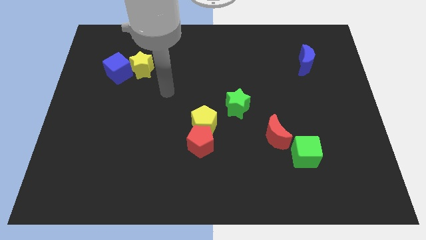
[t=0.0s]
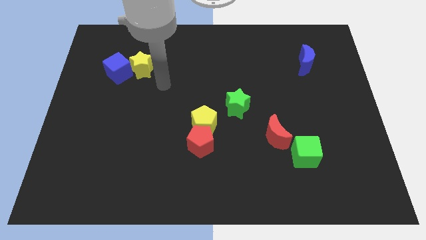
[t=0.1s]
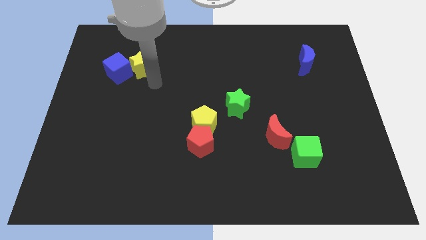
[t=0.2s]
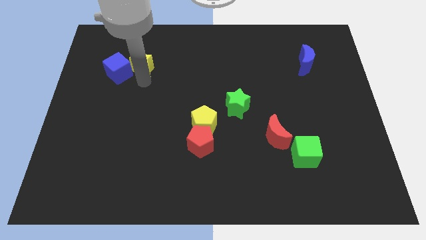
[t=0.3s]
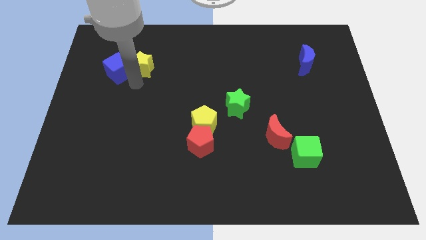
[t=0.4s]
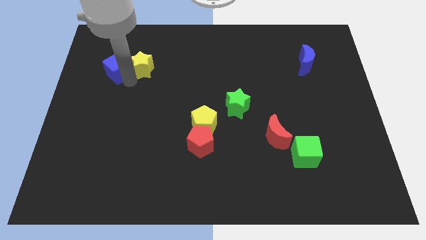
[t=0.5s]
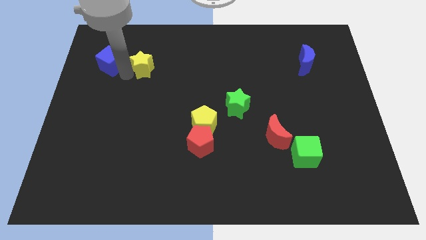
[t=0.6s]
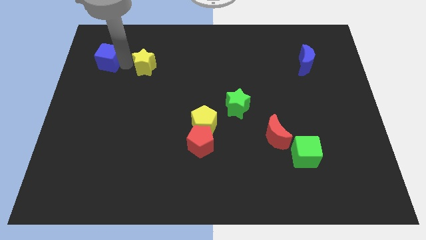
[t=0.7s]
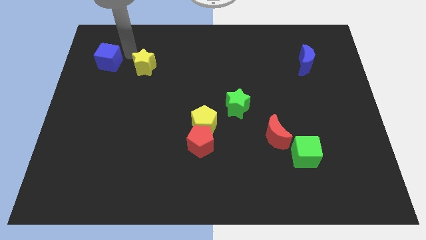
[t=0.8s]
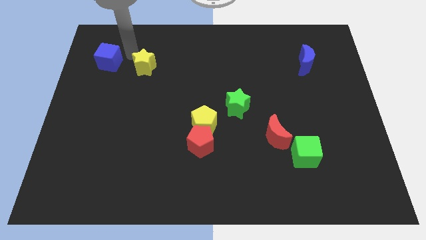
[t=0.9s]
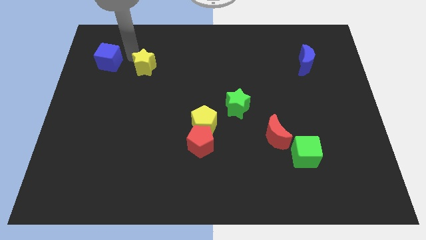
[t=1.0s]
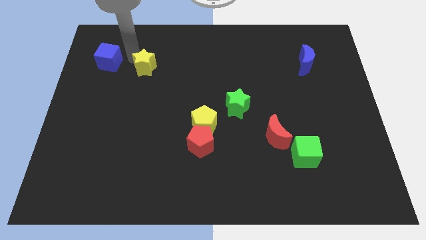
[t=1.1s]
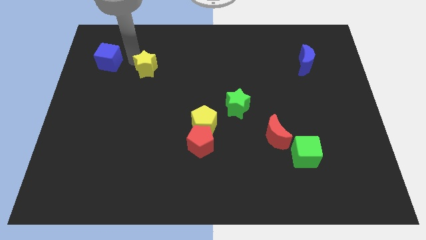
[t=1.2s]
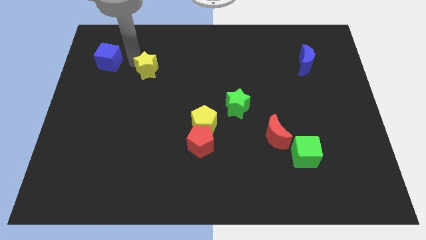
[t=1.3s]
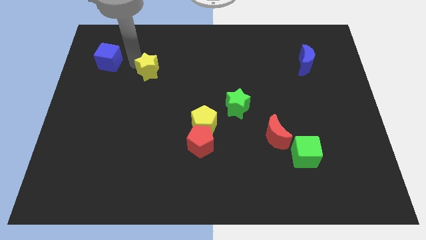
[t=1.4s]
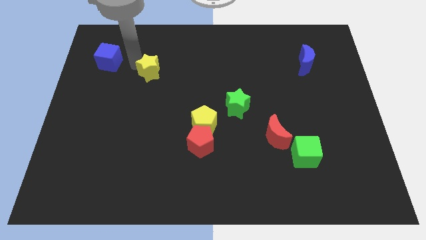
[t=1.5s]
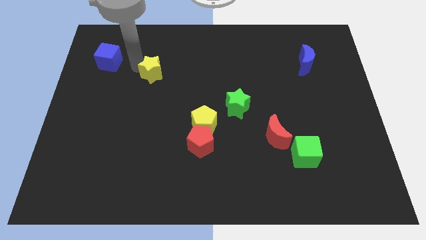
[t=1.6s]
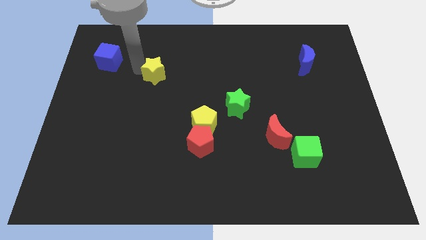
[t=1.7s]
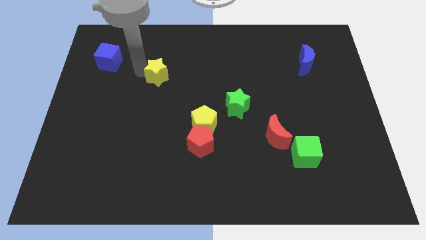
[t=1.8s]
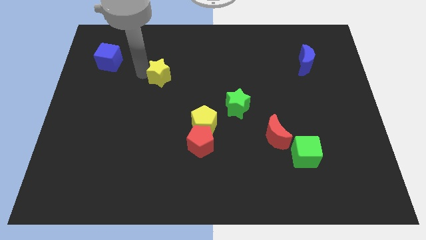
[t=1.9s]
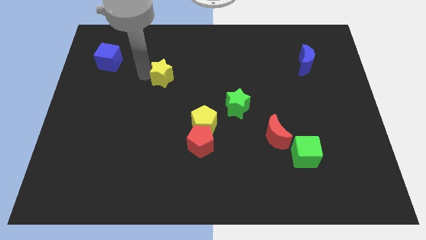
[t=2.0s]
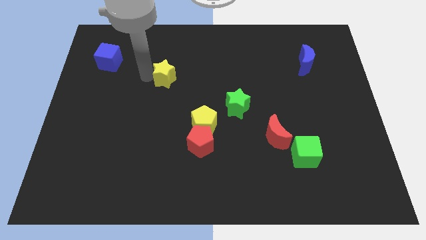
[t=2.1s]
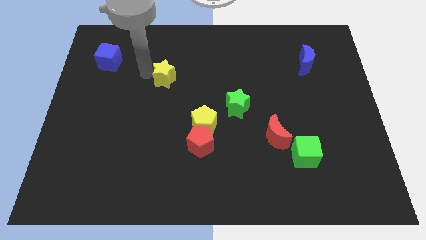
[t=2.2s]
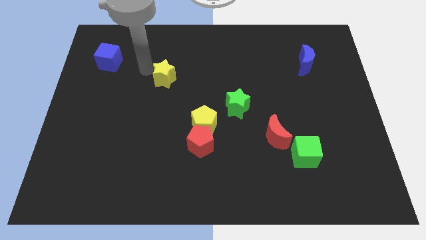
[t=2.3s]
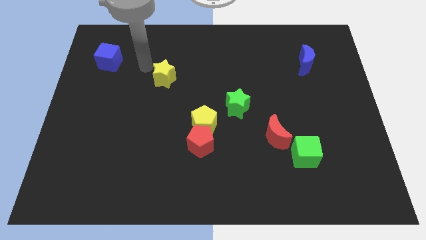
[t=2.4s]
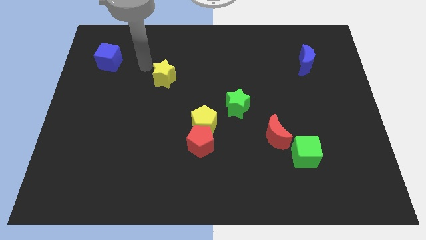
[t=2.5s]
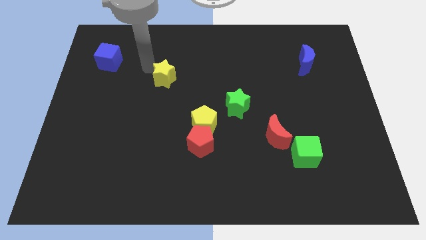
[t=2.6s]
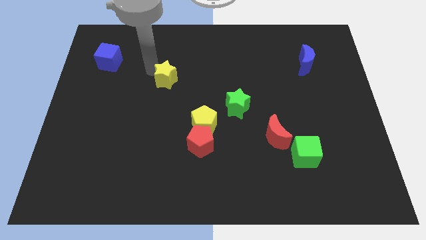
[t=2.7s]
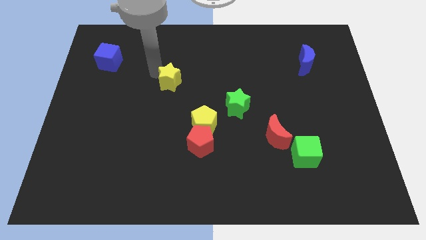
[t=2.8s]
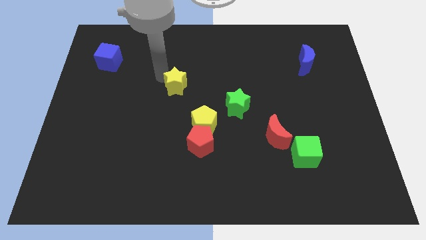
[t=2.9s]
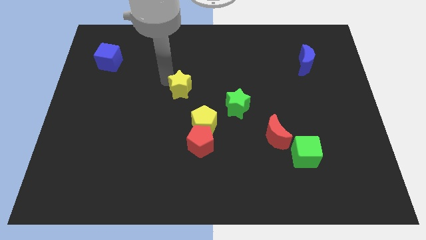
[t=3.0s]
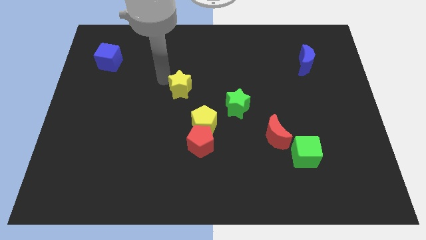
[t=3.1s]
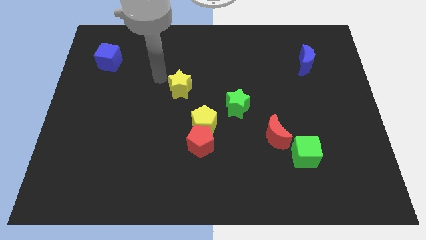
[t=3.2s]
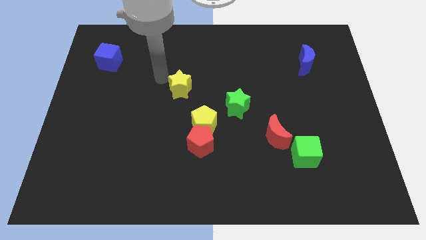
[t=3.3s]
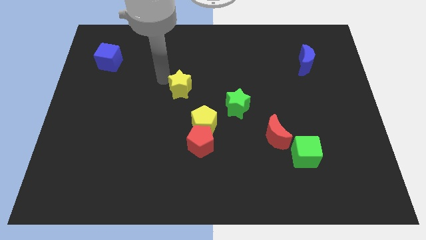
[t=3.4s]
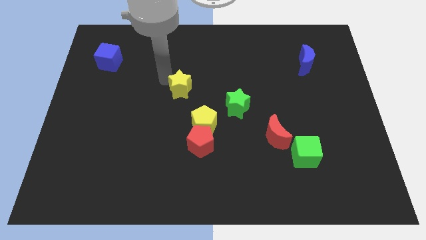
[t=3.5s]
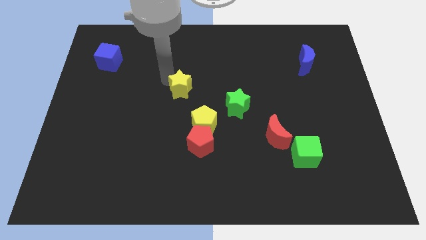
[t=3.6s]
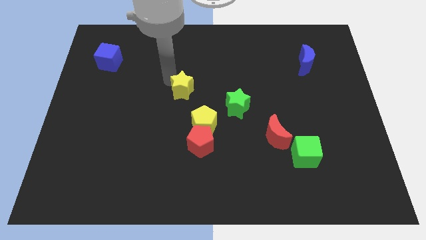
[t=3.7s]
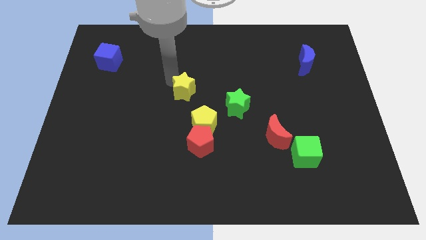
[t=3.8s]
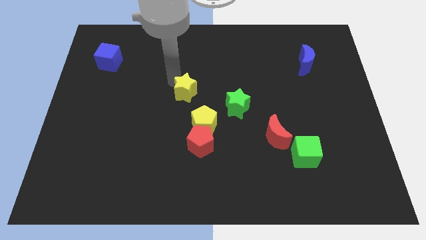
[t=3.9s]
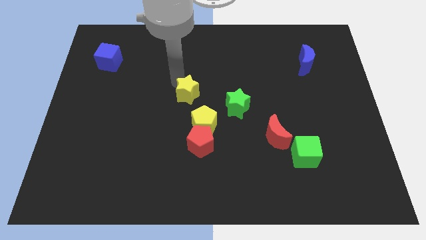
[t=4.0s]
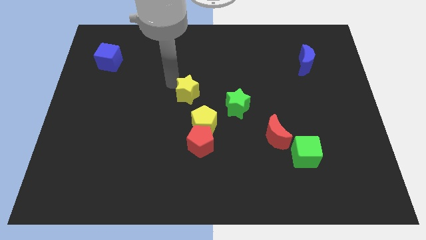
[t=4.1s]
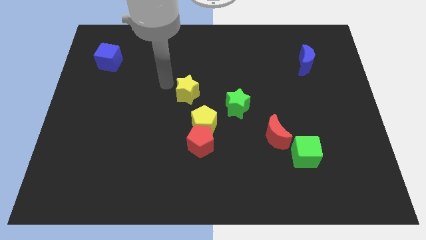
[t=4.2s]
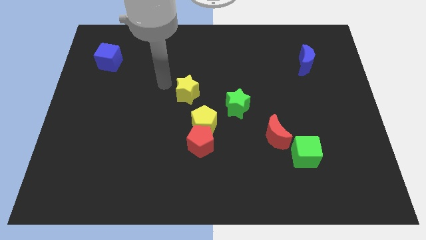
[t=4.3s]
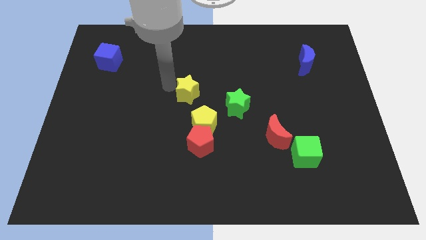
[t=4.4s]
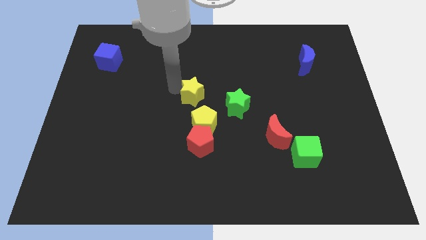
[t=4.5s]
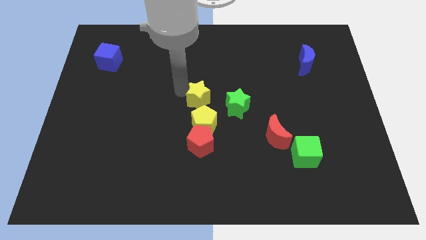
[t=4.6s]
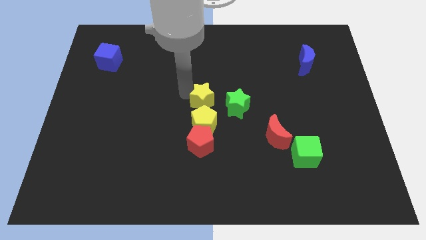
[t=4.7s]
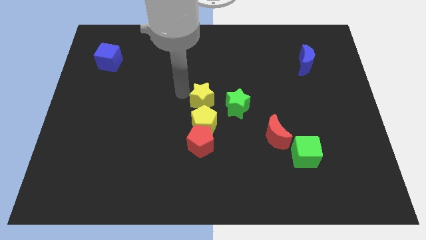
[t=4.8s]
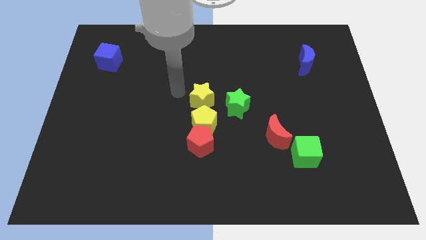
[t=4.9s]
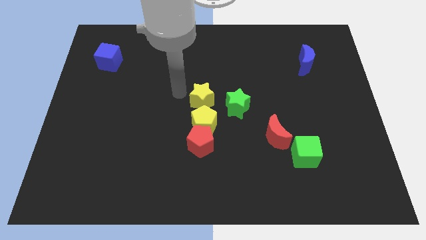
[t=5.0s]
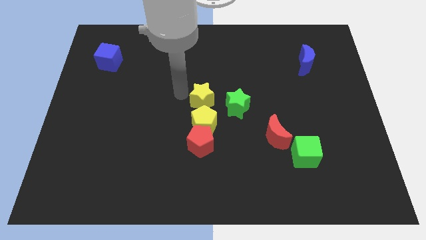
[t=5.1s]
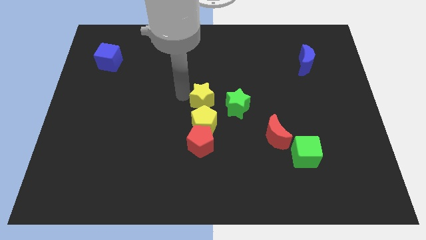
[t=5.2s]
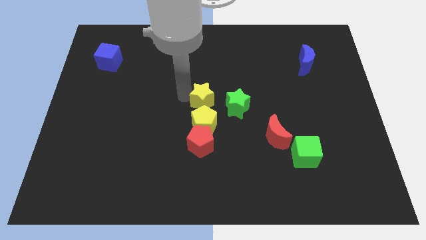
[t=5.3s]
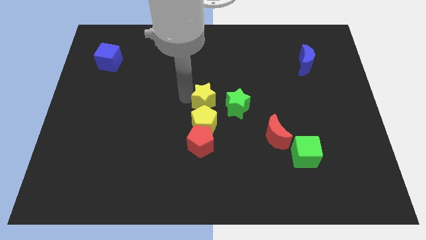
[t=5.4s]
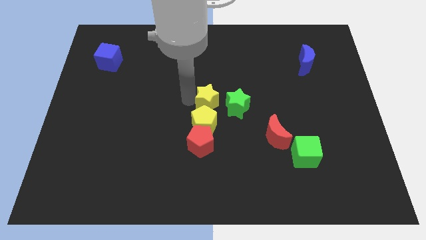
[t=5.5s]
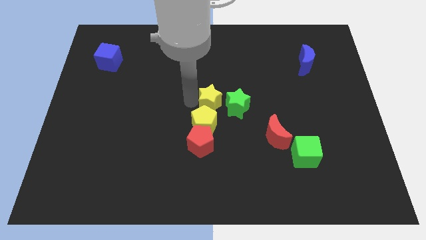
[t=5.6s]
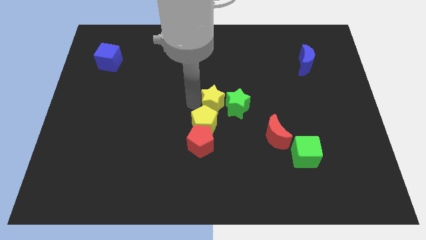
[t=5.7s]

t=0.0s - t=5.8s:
slide the yellow star close to the green star

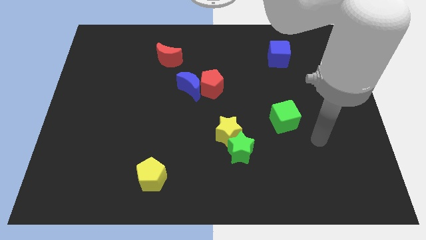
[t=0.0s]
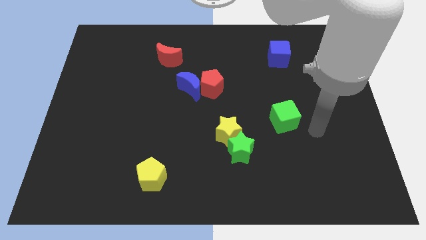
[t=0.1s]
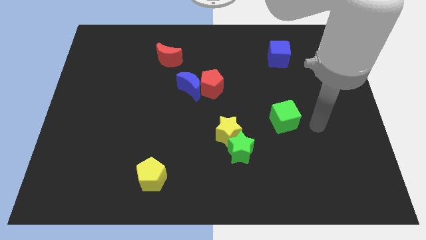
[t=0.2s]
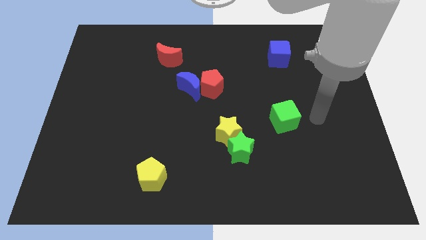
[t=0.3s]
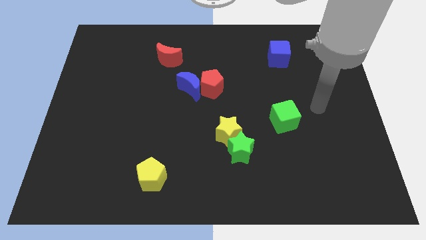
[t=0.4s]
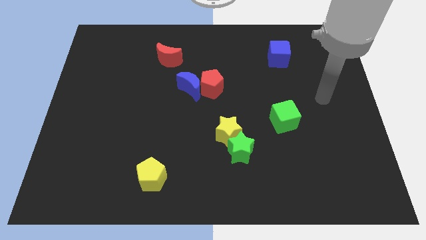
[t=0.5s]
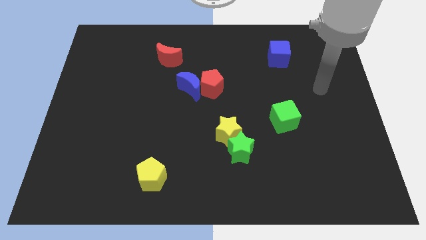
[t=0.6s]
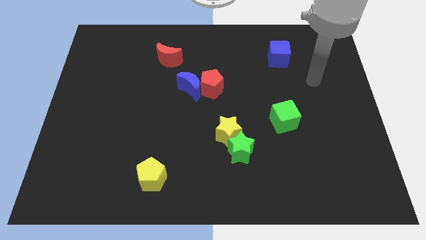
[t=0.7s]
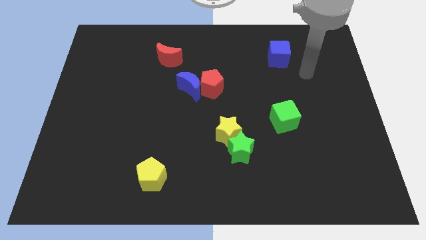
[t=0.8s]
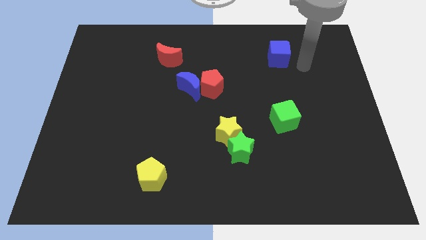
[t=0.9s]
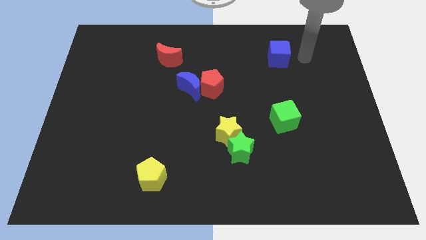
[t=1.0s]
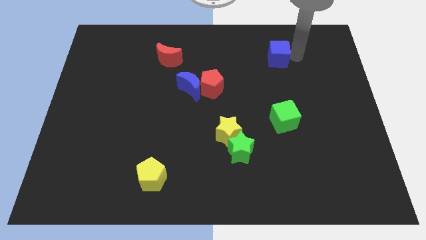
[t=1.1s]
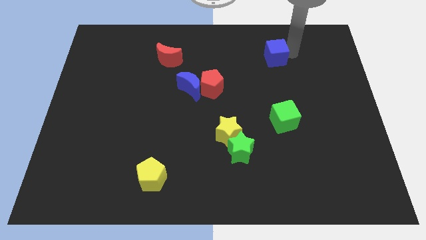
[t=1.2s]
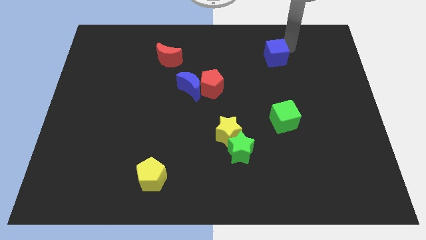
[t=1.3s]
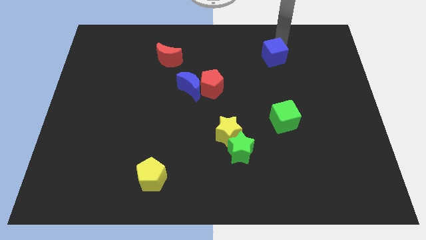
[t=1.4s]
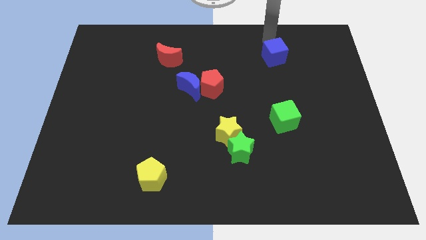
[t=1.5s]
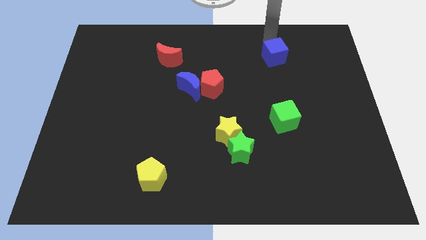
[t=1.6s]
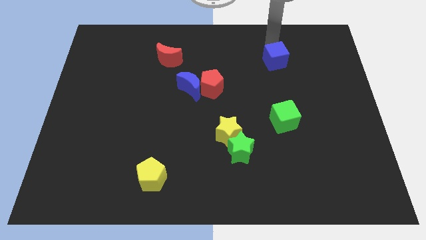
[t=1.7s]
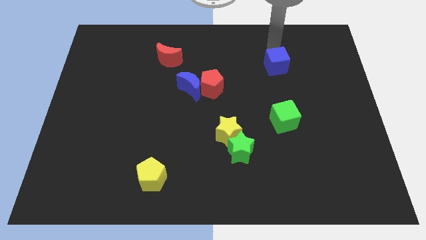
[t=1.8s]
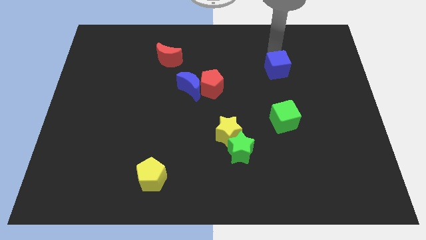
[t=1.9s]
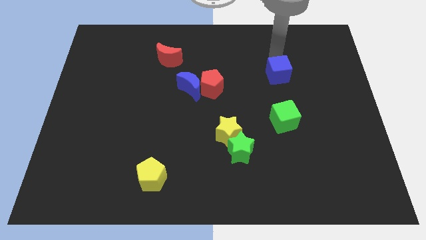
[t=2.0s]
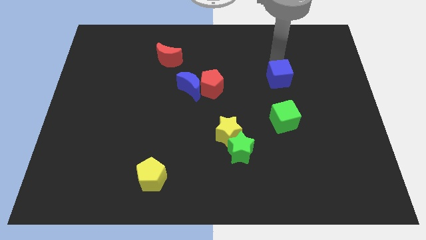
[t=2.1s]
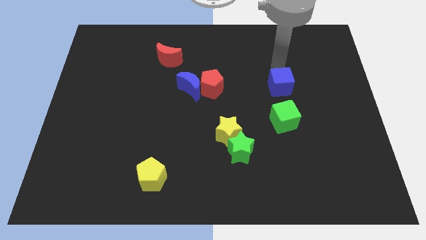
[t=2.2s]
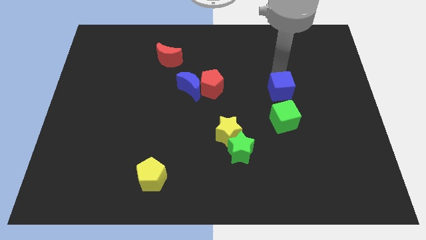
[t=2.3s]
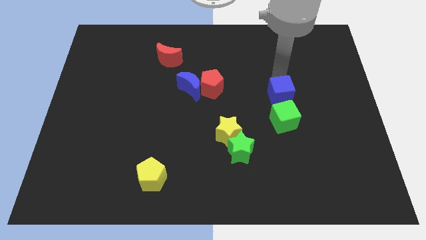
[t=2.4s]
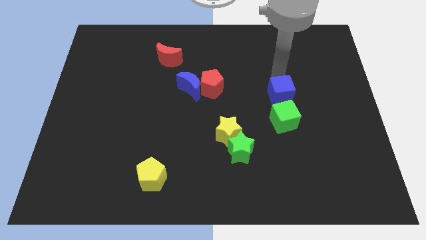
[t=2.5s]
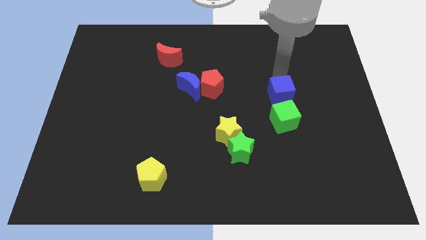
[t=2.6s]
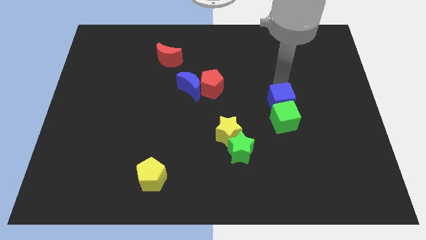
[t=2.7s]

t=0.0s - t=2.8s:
move the blue cube towards the green cube
